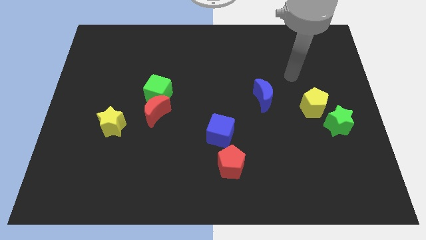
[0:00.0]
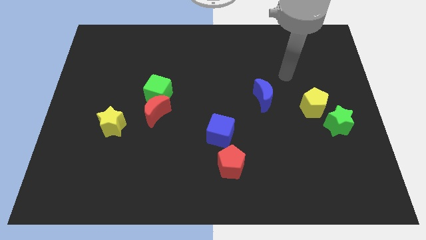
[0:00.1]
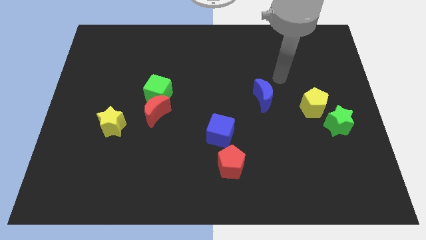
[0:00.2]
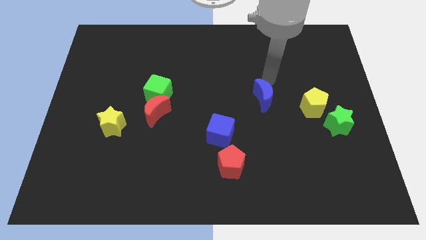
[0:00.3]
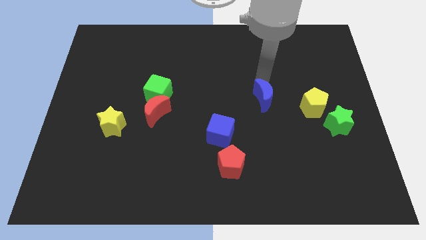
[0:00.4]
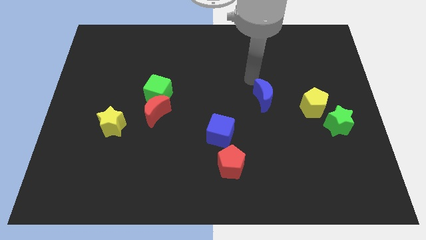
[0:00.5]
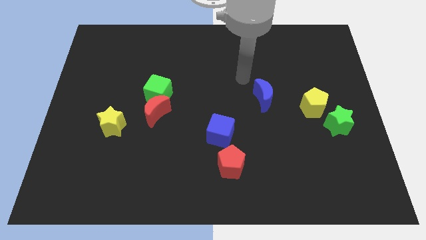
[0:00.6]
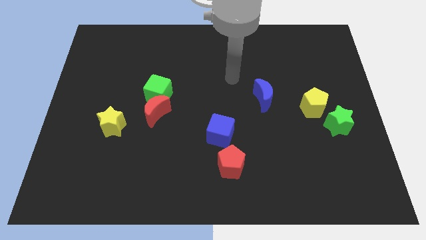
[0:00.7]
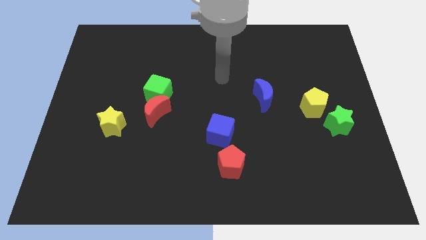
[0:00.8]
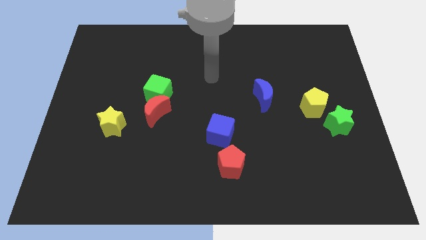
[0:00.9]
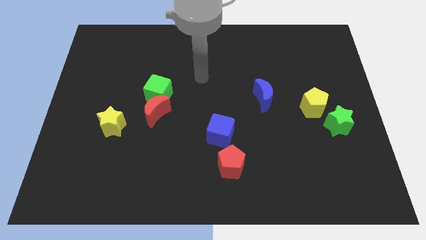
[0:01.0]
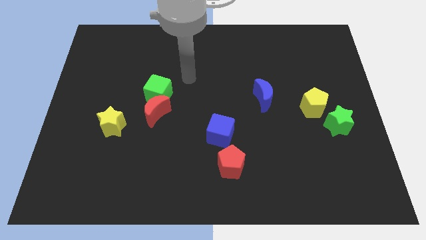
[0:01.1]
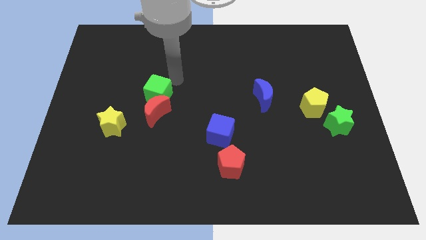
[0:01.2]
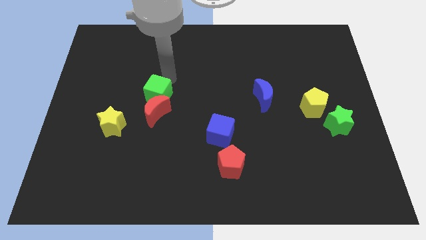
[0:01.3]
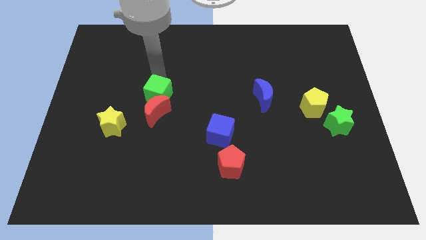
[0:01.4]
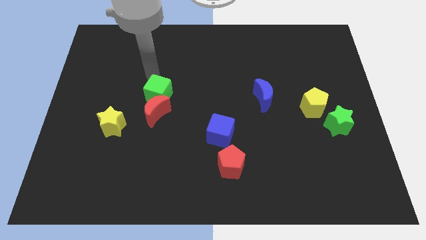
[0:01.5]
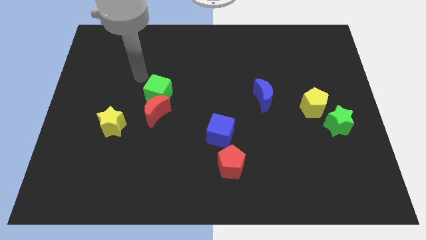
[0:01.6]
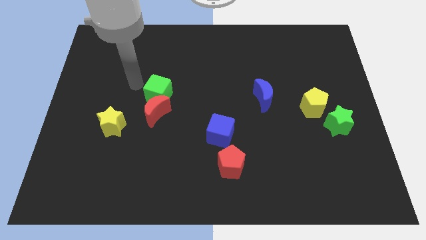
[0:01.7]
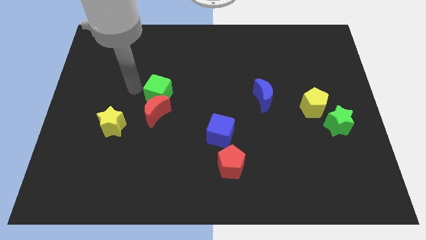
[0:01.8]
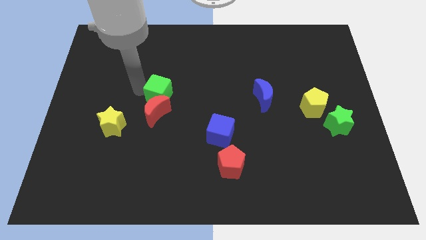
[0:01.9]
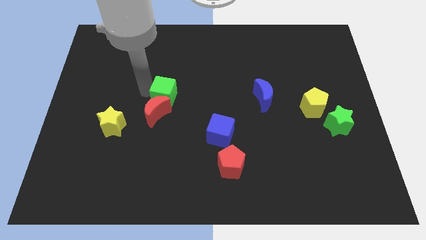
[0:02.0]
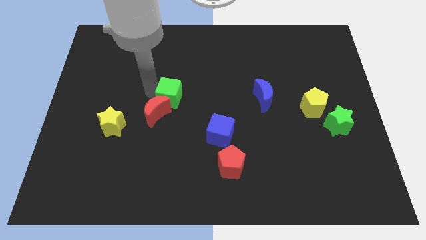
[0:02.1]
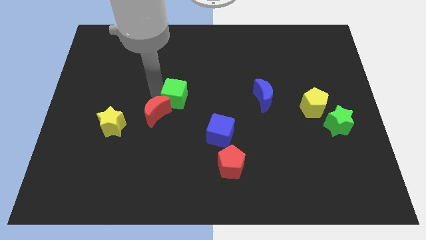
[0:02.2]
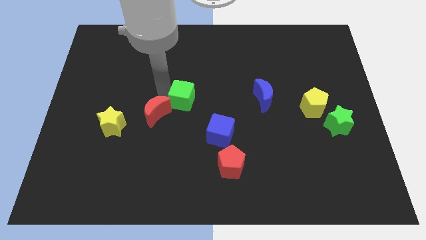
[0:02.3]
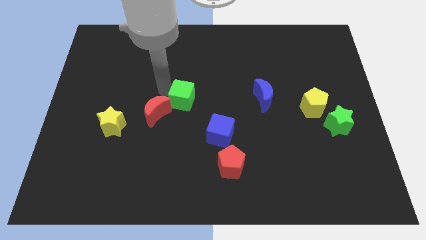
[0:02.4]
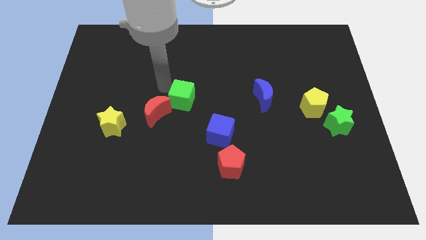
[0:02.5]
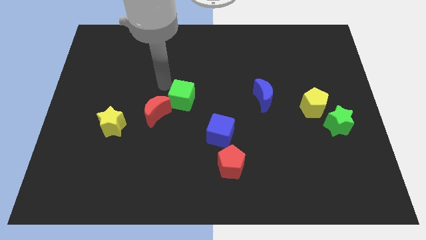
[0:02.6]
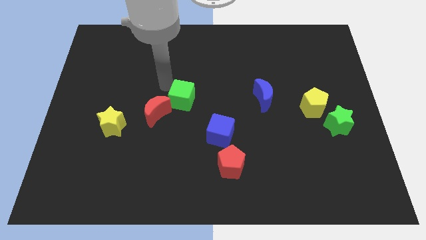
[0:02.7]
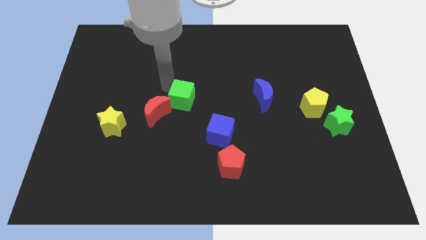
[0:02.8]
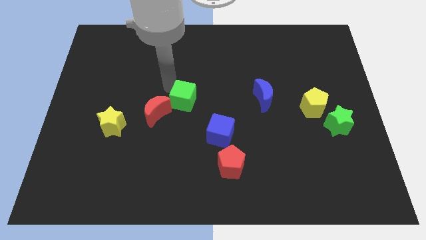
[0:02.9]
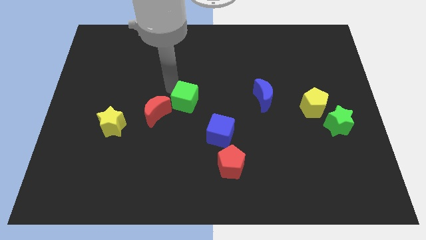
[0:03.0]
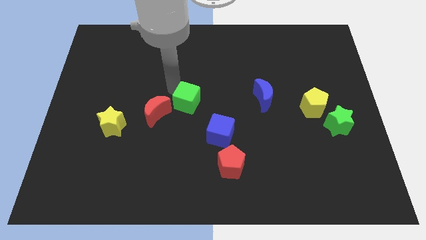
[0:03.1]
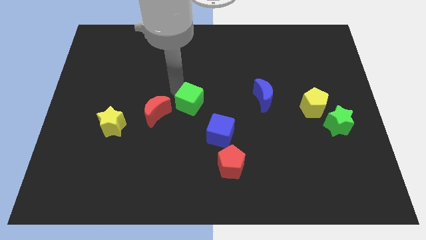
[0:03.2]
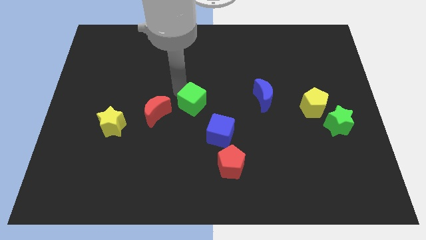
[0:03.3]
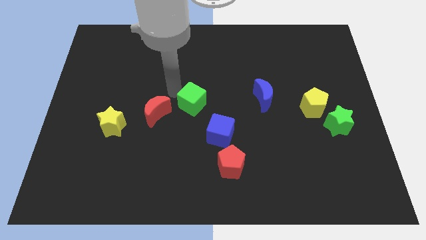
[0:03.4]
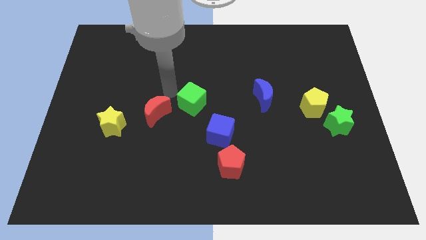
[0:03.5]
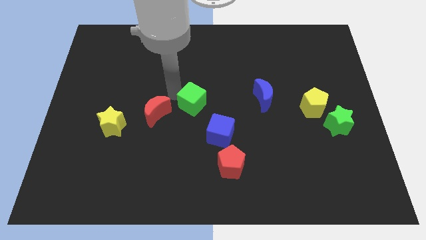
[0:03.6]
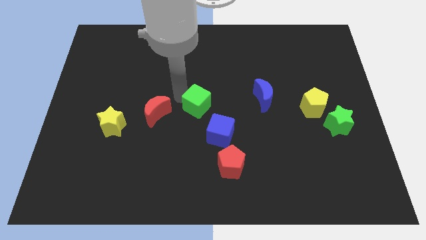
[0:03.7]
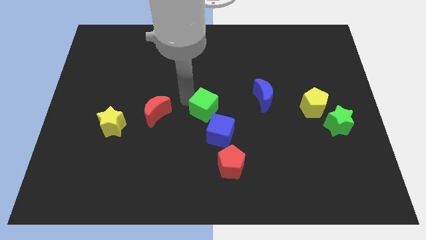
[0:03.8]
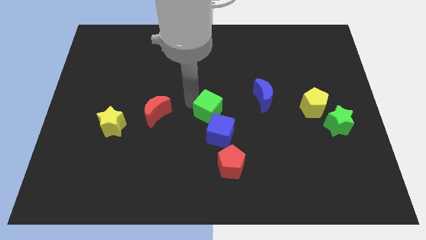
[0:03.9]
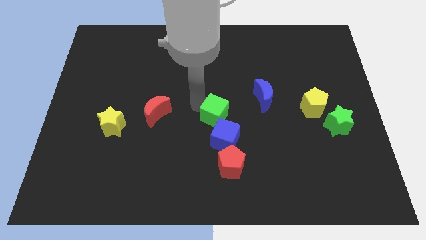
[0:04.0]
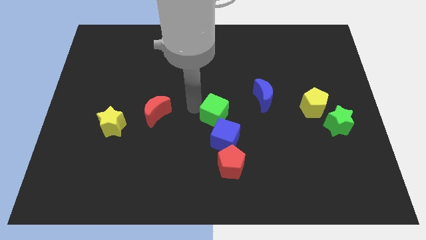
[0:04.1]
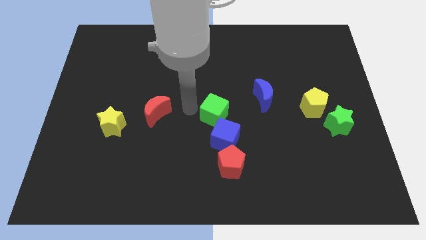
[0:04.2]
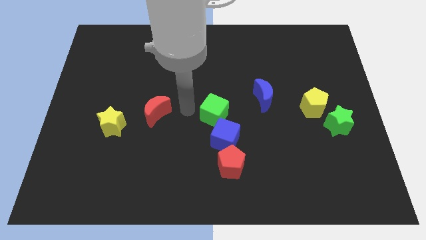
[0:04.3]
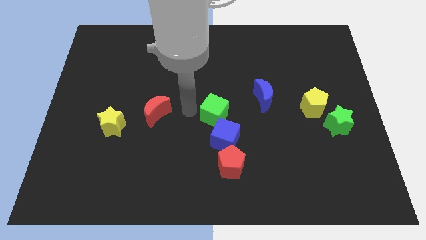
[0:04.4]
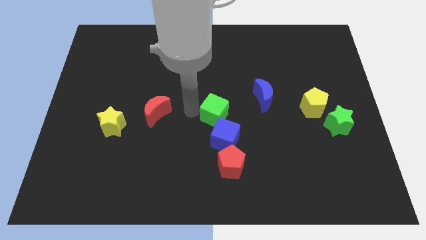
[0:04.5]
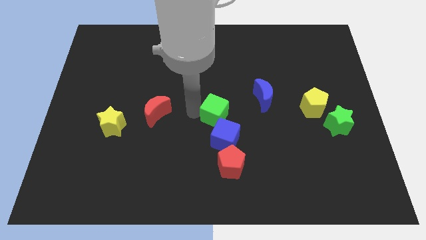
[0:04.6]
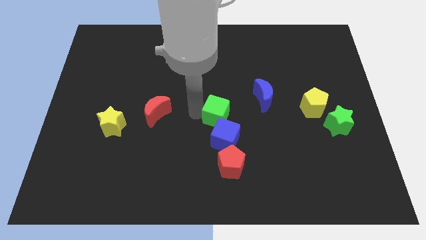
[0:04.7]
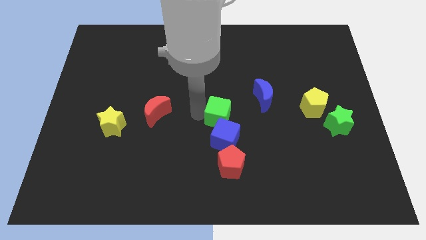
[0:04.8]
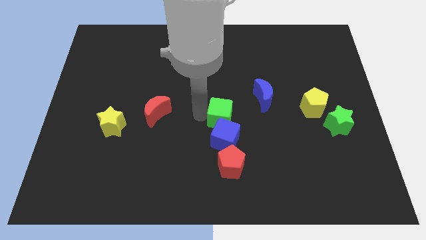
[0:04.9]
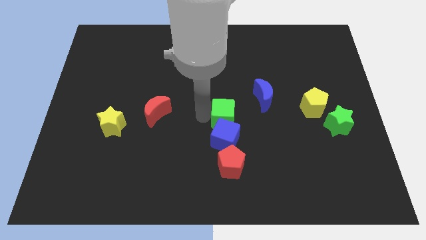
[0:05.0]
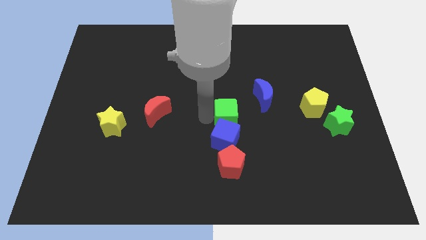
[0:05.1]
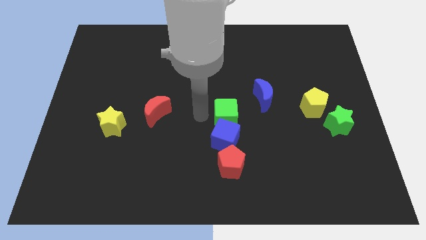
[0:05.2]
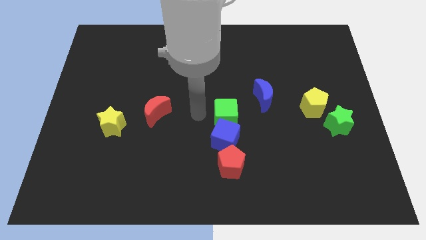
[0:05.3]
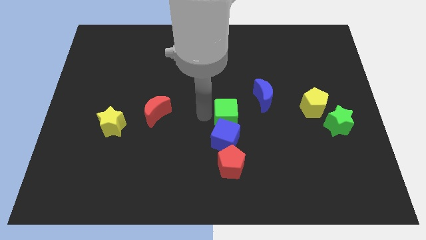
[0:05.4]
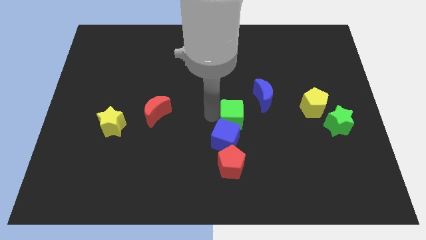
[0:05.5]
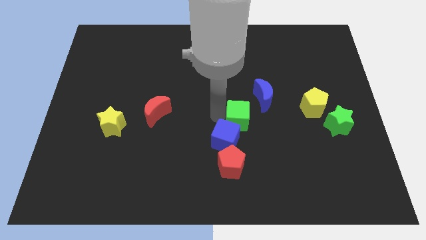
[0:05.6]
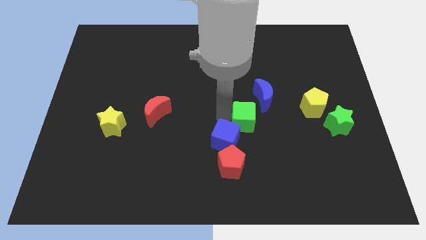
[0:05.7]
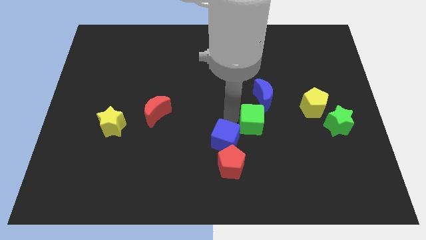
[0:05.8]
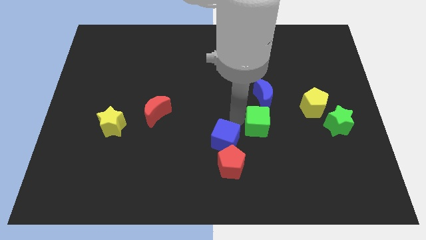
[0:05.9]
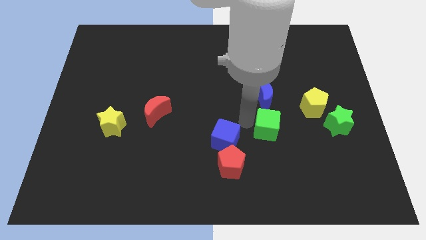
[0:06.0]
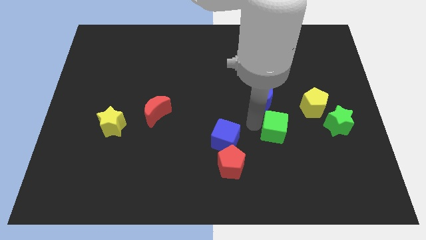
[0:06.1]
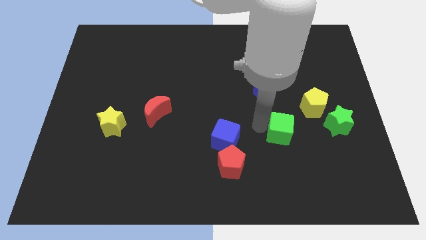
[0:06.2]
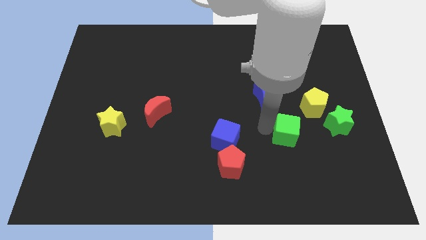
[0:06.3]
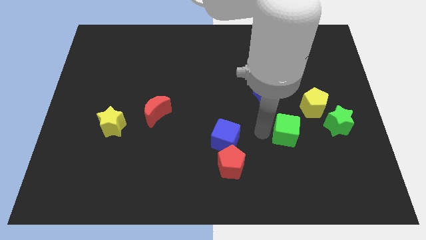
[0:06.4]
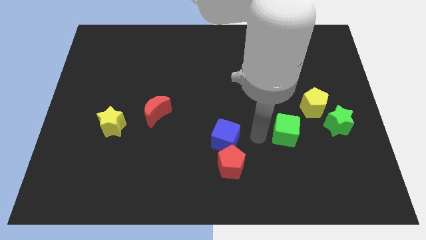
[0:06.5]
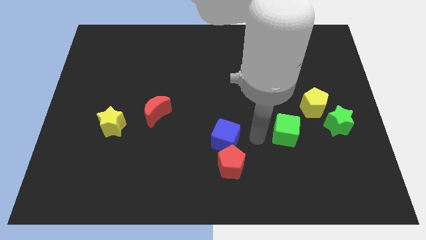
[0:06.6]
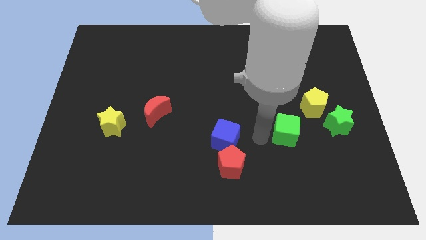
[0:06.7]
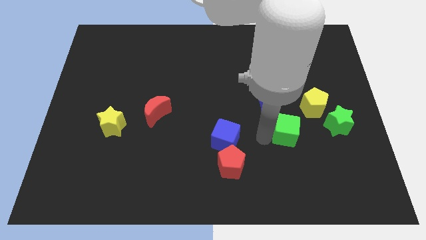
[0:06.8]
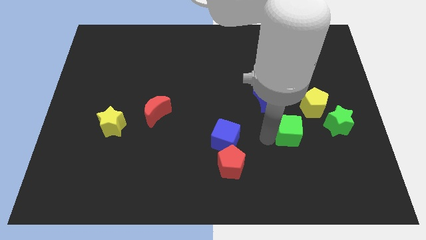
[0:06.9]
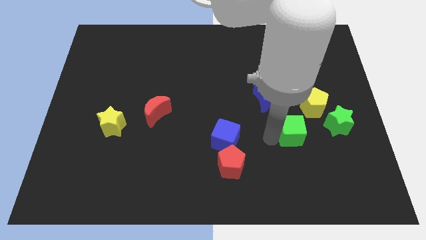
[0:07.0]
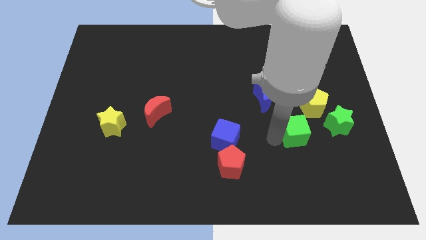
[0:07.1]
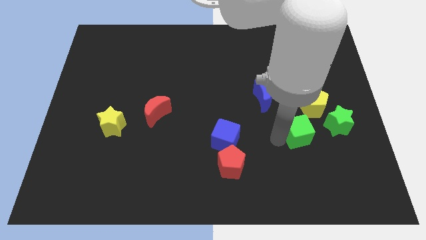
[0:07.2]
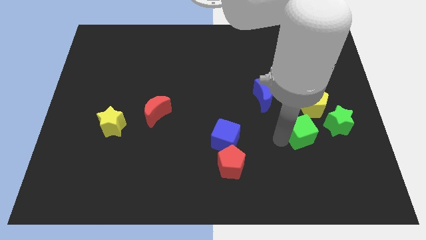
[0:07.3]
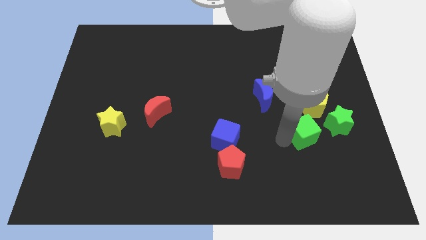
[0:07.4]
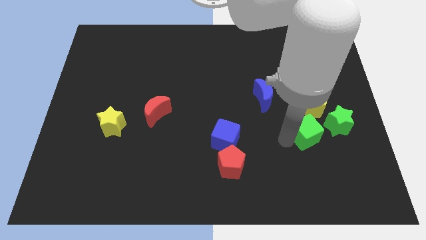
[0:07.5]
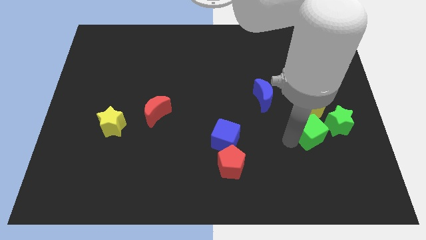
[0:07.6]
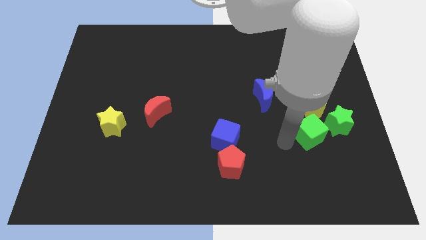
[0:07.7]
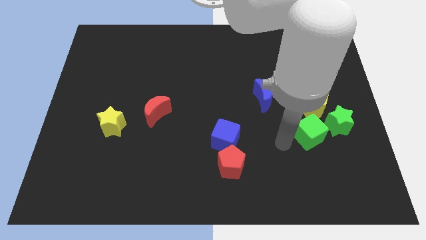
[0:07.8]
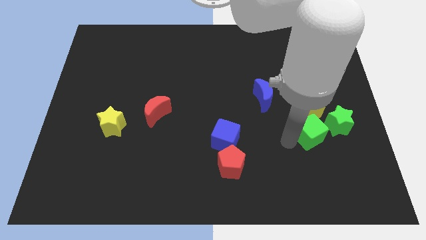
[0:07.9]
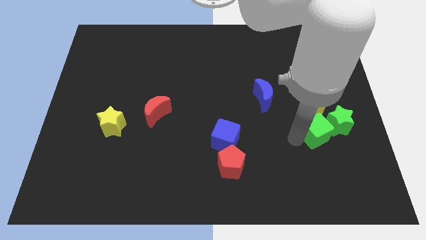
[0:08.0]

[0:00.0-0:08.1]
put the green cube close to the green star
